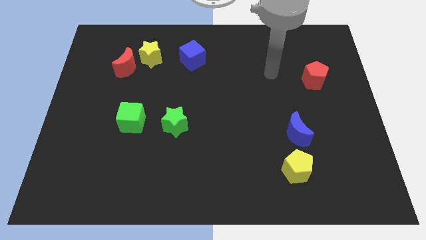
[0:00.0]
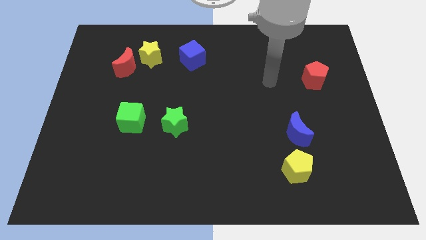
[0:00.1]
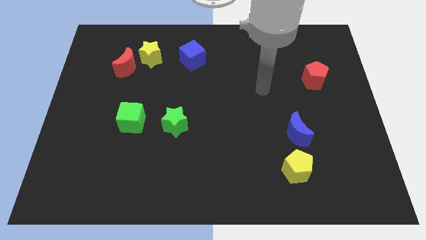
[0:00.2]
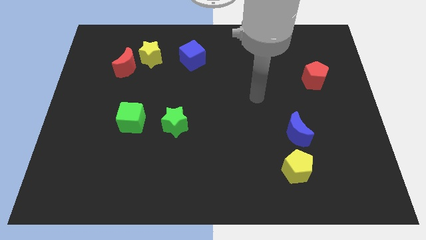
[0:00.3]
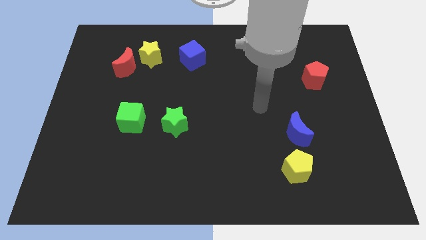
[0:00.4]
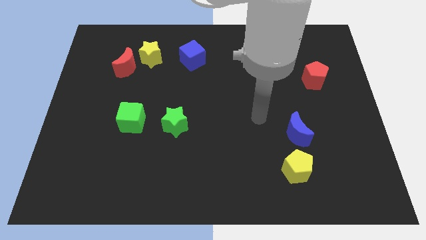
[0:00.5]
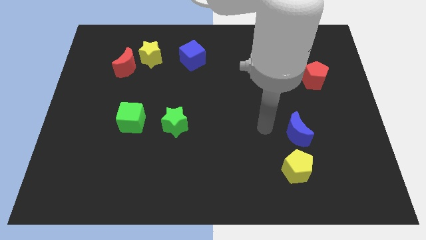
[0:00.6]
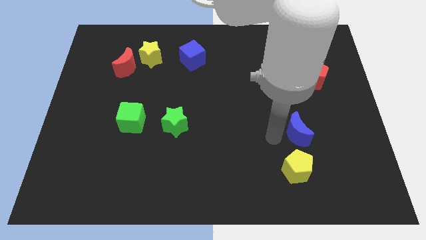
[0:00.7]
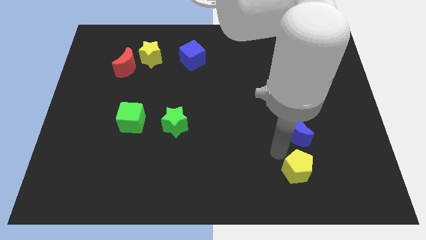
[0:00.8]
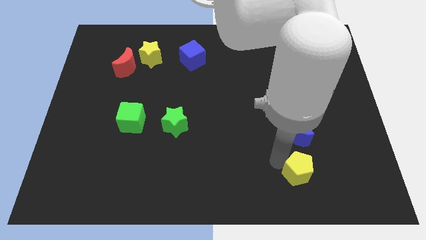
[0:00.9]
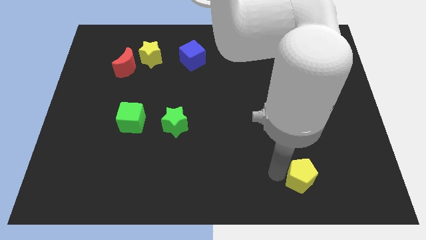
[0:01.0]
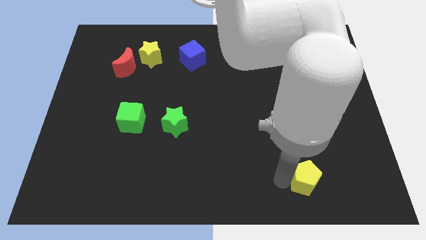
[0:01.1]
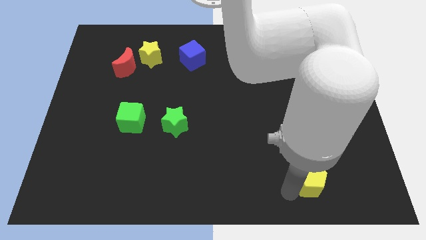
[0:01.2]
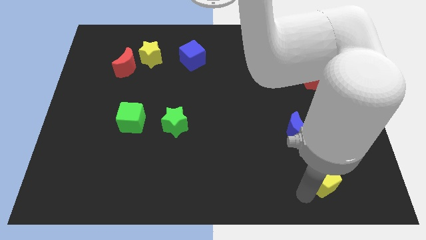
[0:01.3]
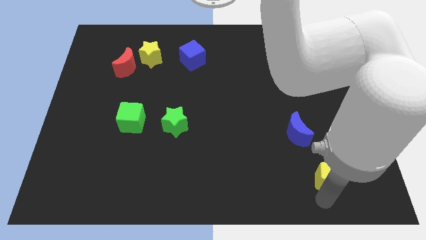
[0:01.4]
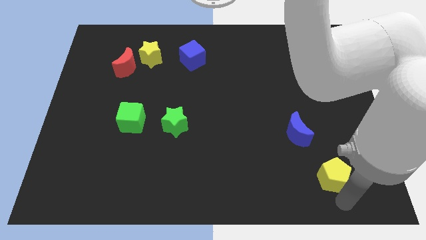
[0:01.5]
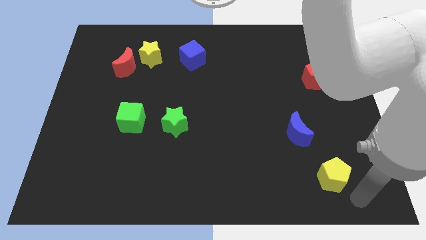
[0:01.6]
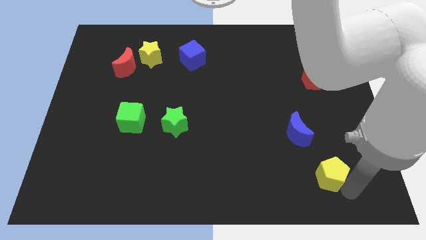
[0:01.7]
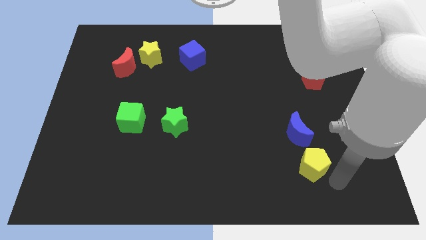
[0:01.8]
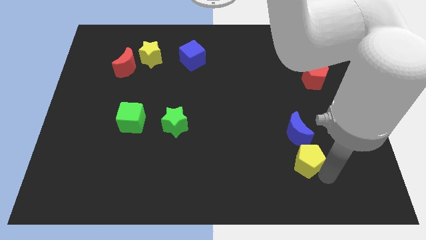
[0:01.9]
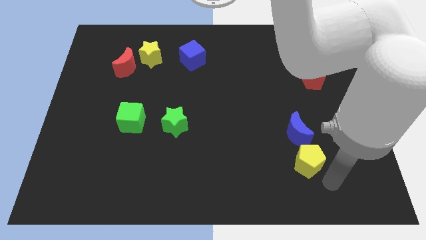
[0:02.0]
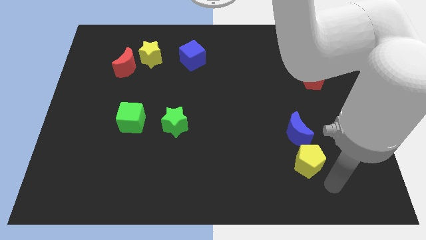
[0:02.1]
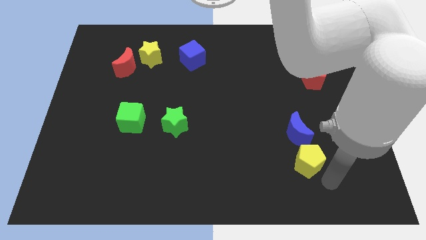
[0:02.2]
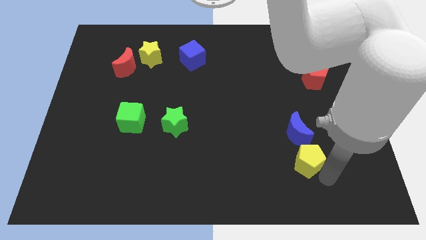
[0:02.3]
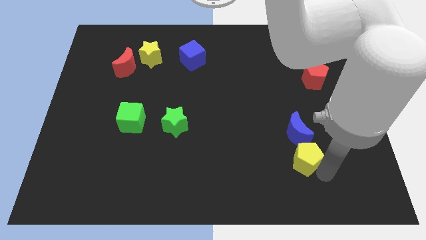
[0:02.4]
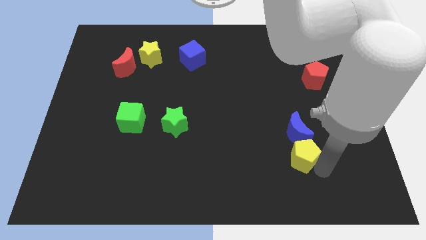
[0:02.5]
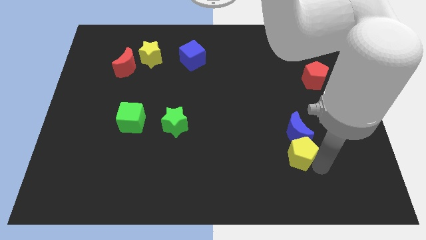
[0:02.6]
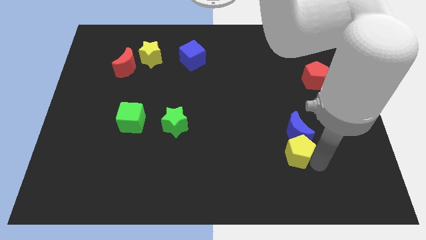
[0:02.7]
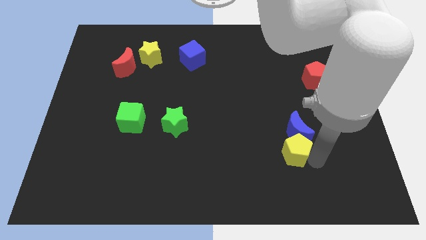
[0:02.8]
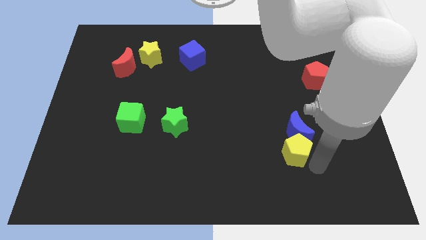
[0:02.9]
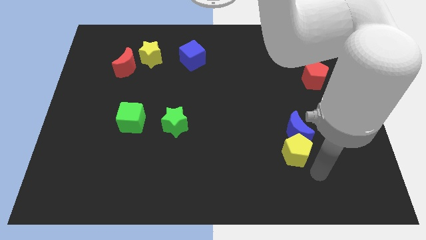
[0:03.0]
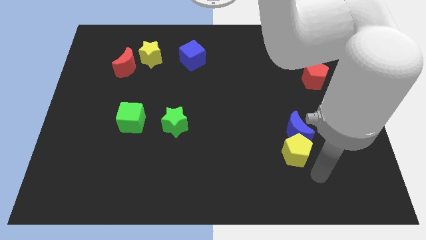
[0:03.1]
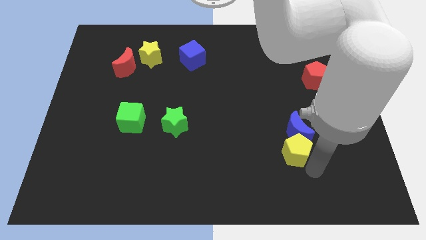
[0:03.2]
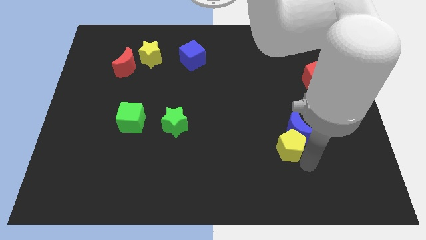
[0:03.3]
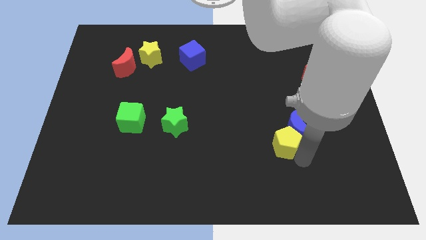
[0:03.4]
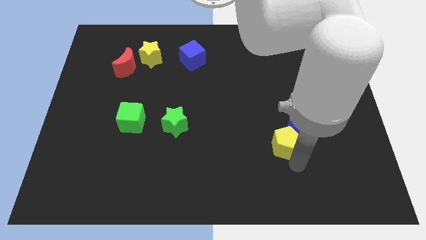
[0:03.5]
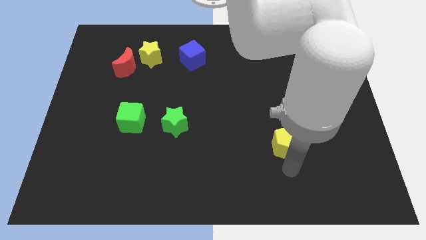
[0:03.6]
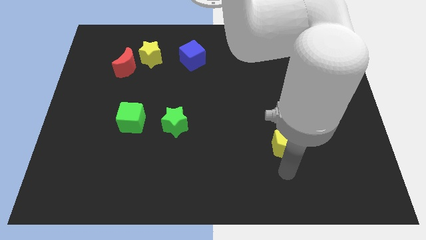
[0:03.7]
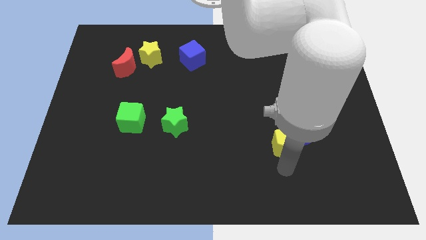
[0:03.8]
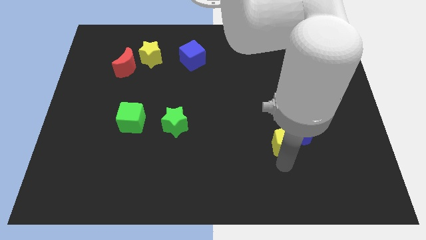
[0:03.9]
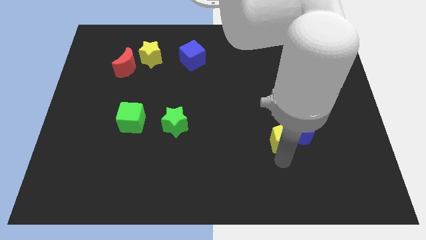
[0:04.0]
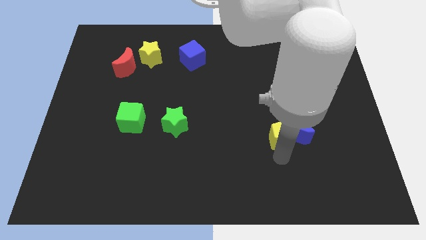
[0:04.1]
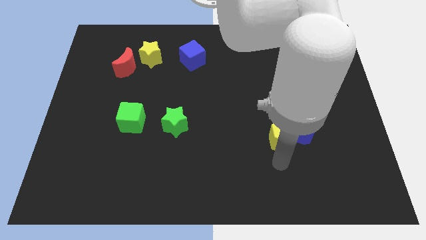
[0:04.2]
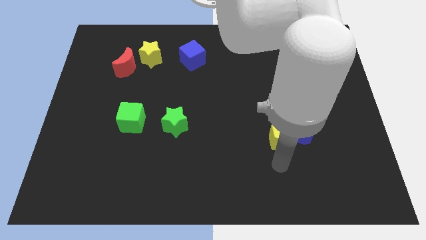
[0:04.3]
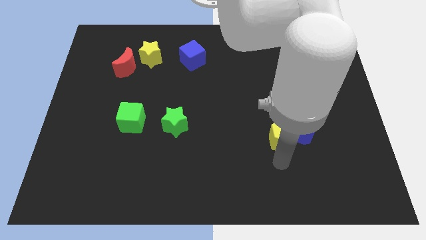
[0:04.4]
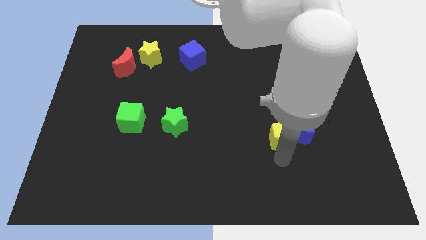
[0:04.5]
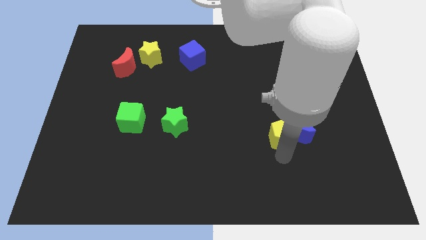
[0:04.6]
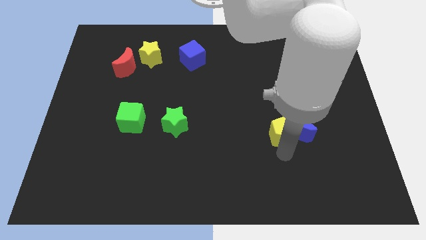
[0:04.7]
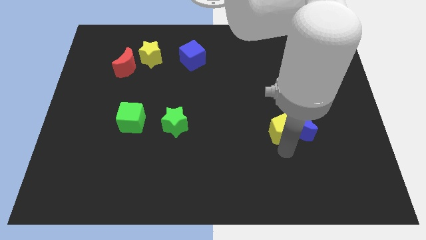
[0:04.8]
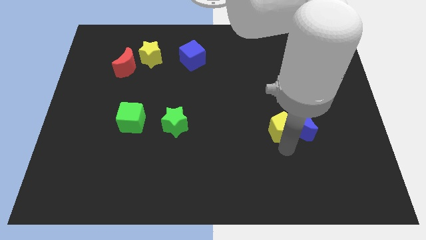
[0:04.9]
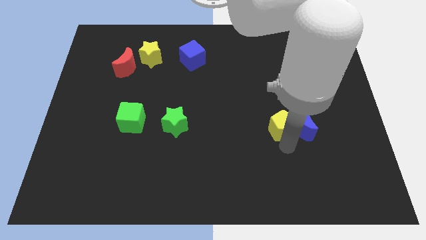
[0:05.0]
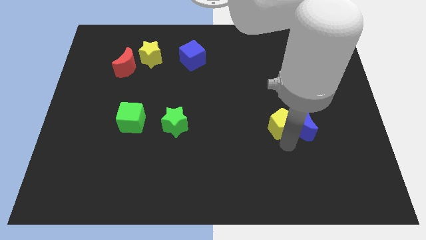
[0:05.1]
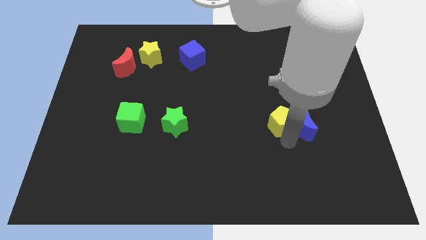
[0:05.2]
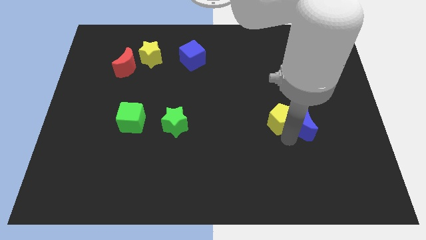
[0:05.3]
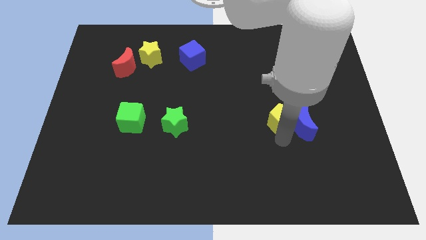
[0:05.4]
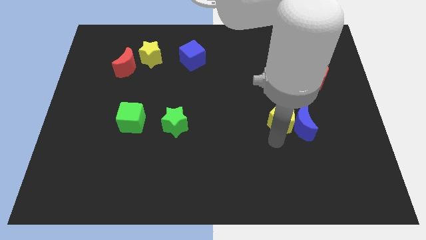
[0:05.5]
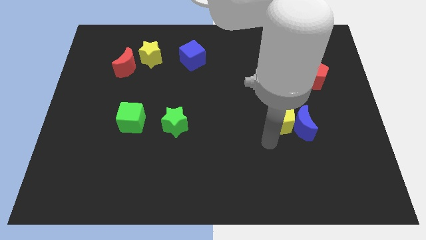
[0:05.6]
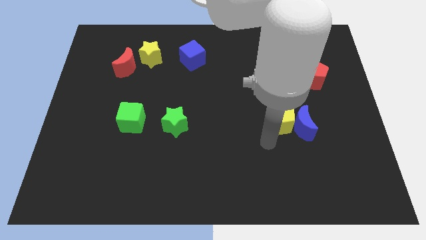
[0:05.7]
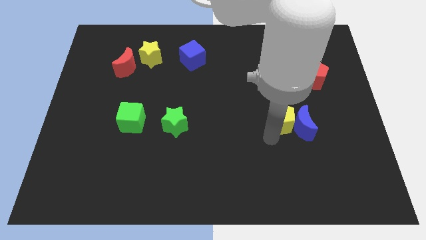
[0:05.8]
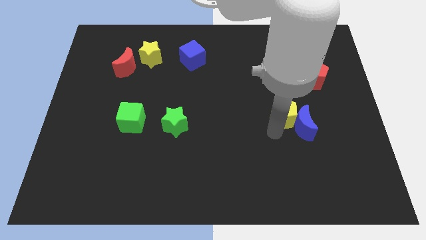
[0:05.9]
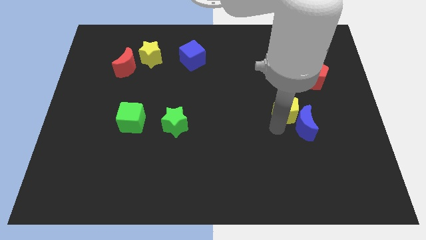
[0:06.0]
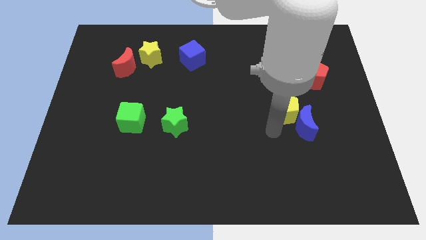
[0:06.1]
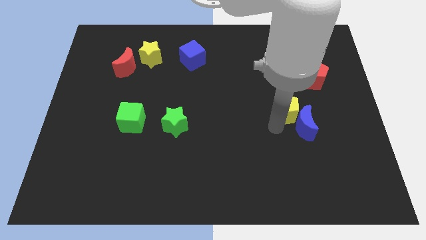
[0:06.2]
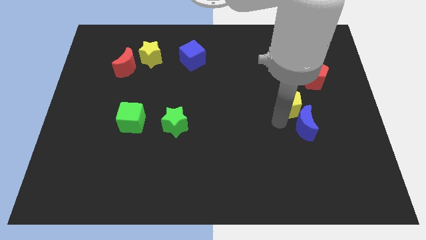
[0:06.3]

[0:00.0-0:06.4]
push the yellow pentagon to the bottom left of the red pentagon

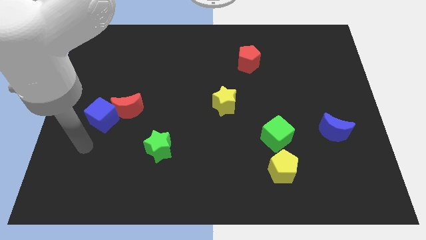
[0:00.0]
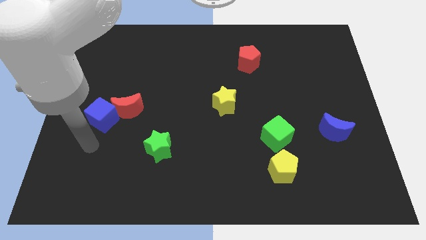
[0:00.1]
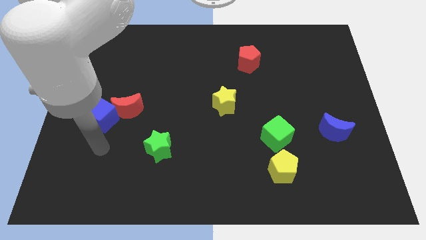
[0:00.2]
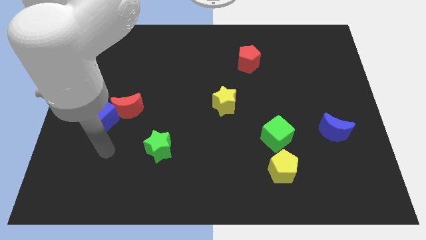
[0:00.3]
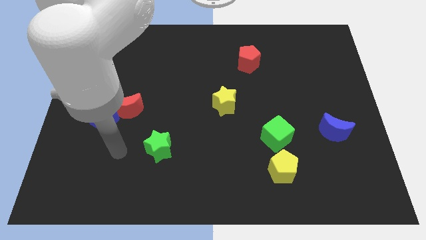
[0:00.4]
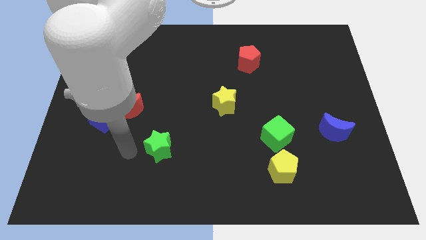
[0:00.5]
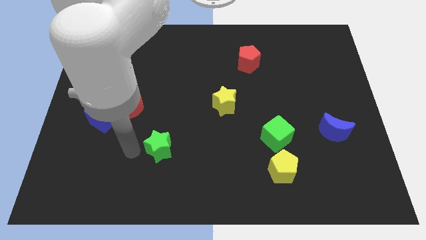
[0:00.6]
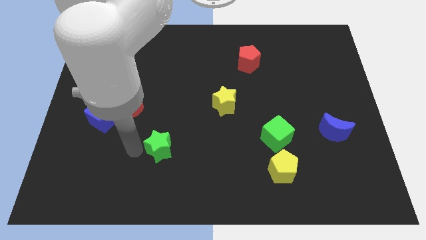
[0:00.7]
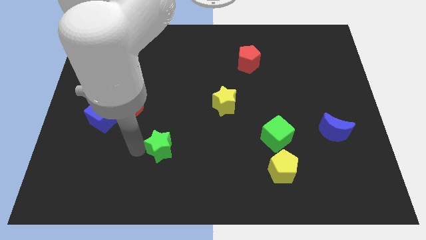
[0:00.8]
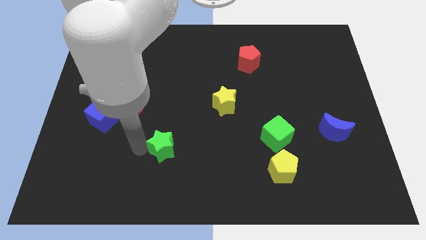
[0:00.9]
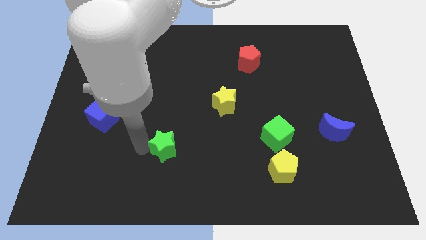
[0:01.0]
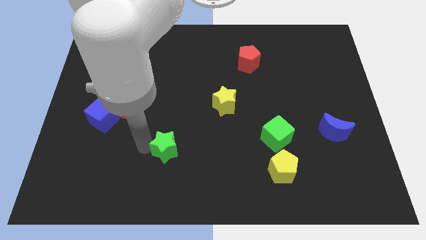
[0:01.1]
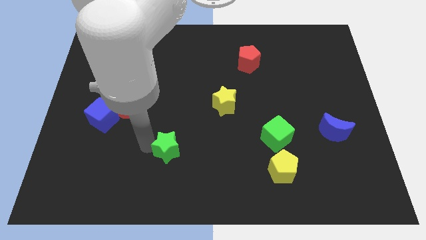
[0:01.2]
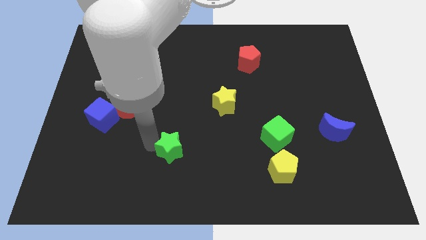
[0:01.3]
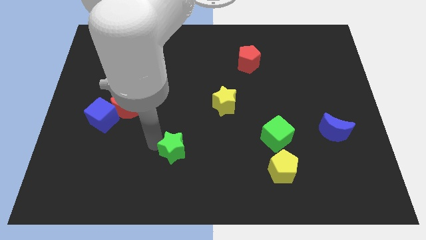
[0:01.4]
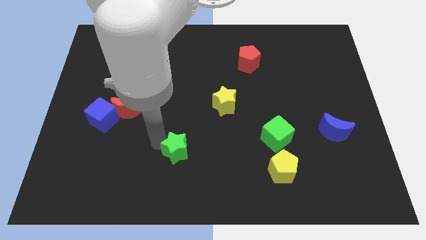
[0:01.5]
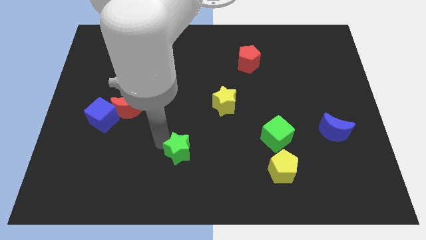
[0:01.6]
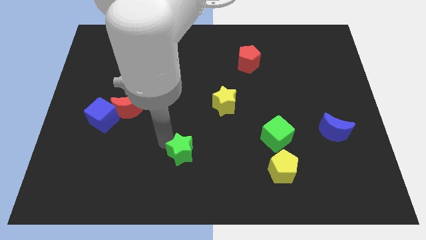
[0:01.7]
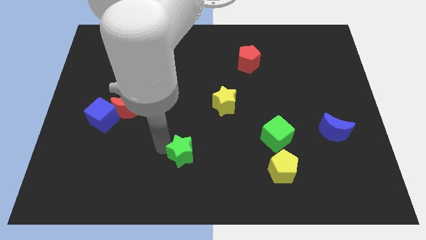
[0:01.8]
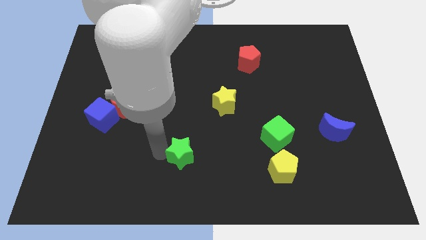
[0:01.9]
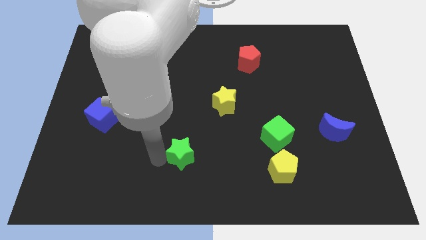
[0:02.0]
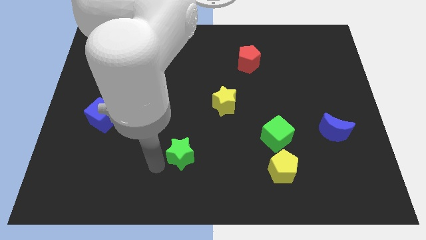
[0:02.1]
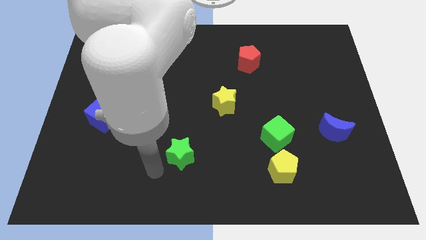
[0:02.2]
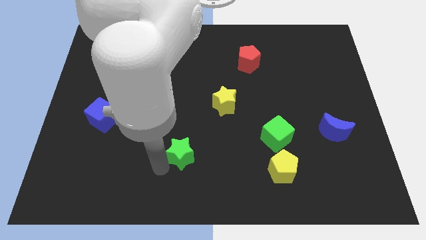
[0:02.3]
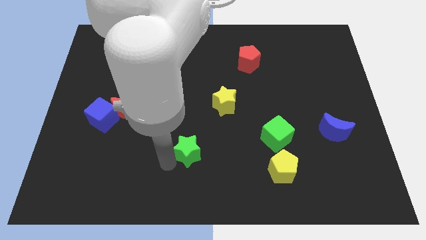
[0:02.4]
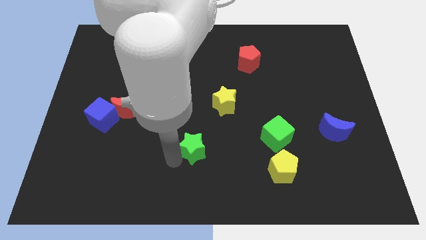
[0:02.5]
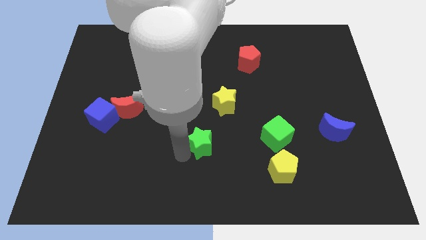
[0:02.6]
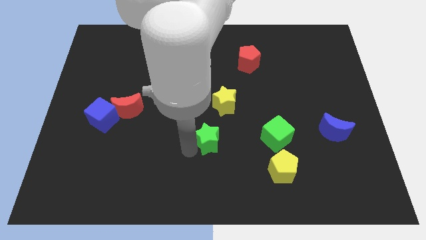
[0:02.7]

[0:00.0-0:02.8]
push the green star left of the green cube
